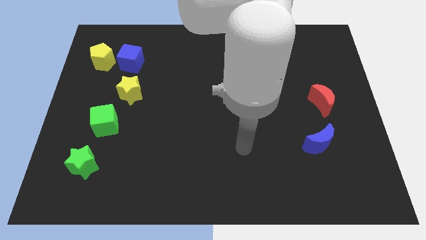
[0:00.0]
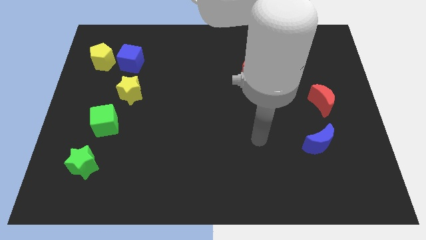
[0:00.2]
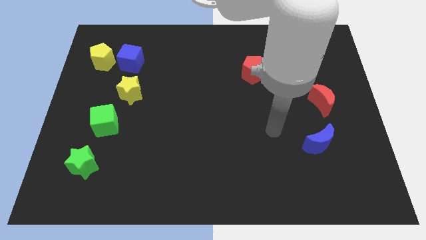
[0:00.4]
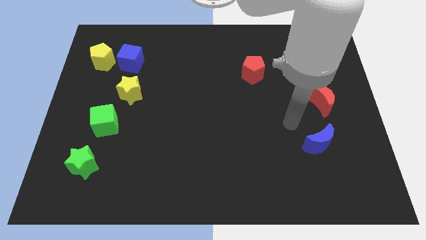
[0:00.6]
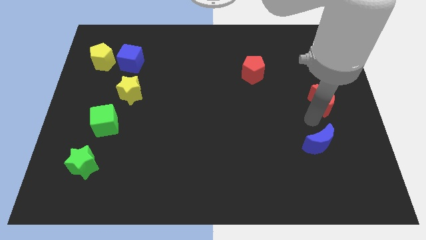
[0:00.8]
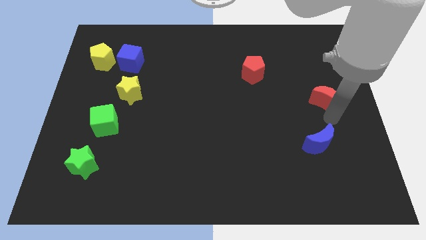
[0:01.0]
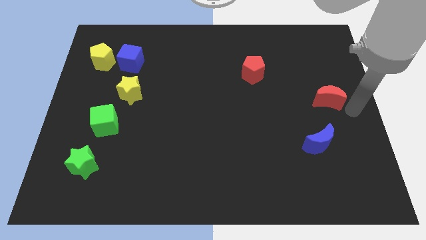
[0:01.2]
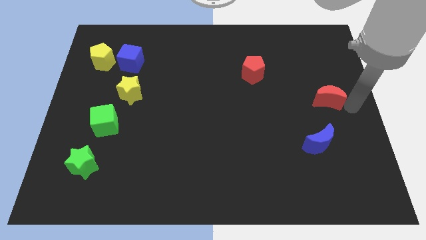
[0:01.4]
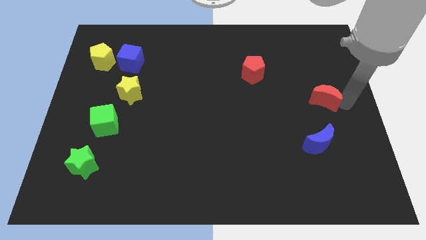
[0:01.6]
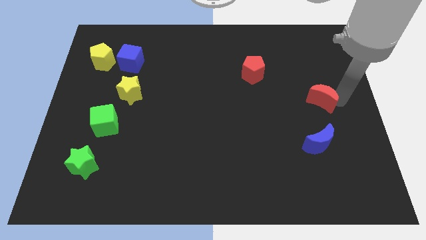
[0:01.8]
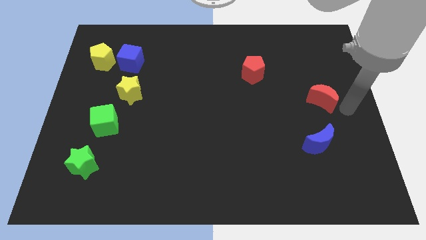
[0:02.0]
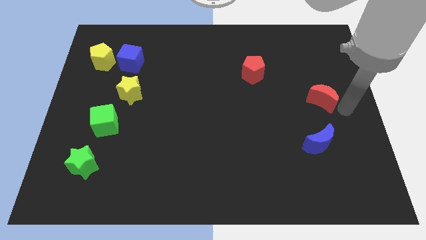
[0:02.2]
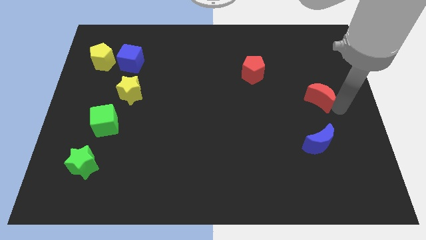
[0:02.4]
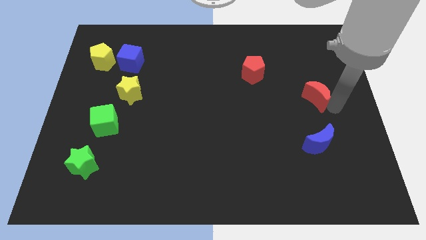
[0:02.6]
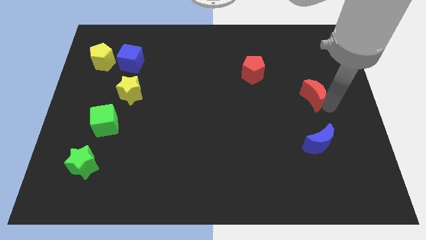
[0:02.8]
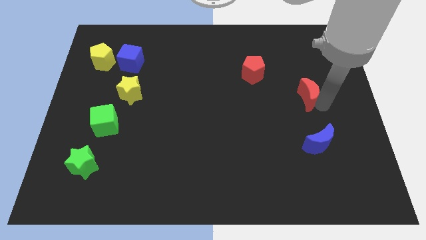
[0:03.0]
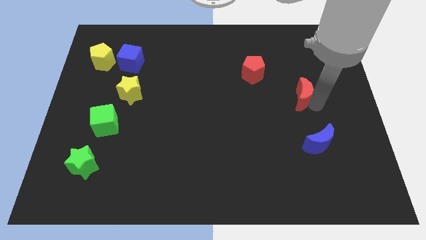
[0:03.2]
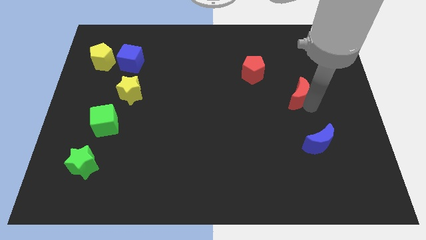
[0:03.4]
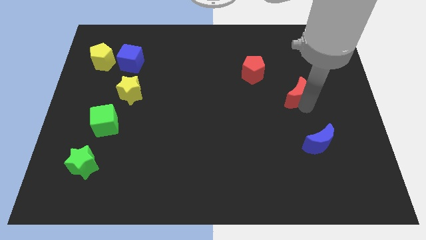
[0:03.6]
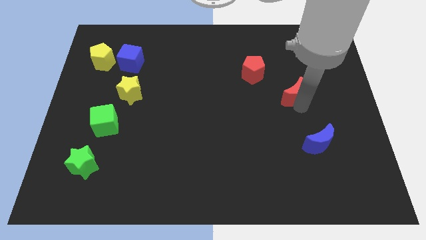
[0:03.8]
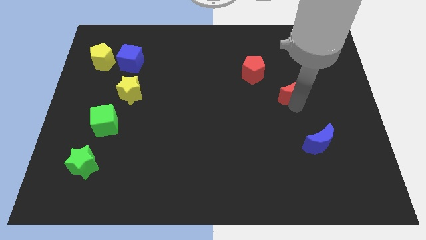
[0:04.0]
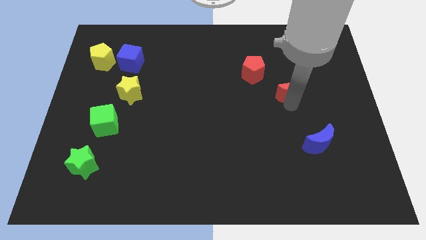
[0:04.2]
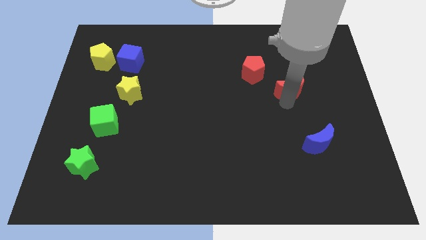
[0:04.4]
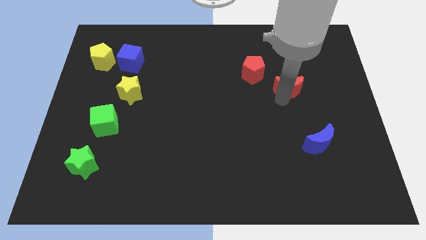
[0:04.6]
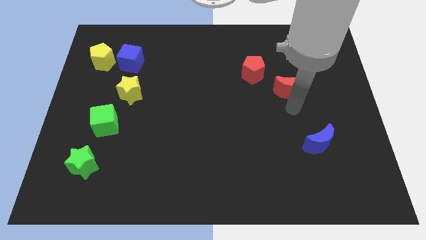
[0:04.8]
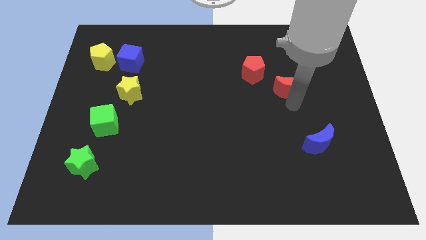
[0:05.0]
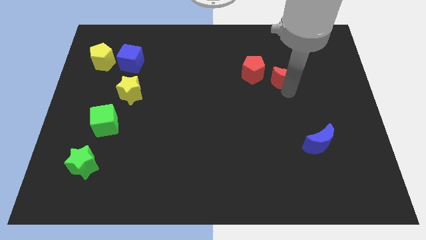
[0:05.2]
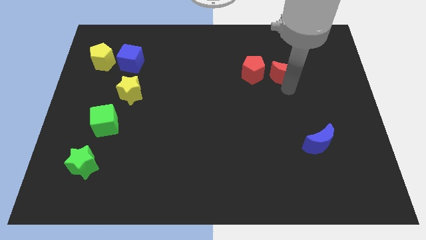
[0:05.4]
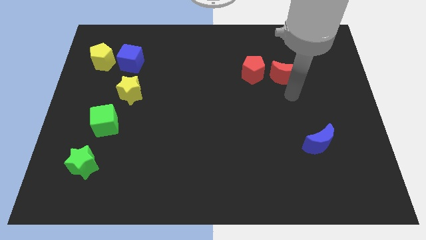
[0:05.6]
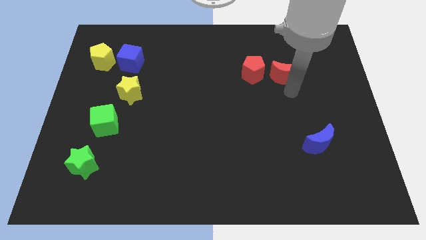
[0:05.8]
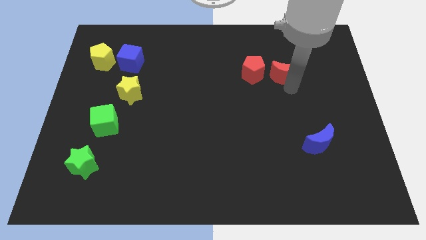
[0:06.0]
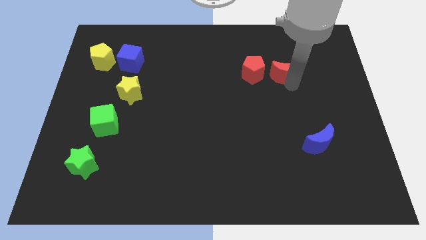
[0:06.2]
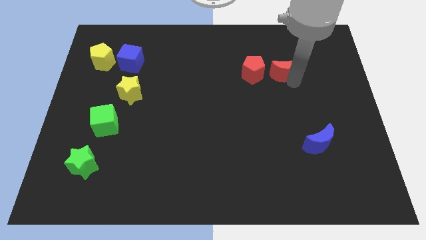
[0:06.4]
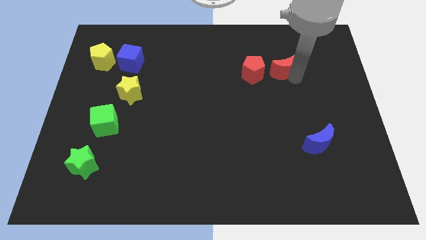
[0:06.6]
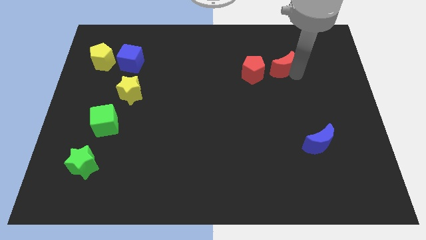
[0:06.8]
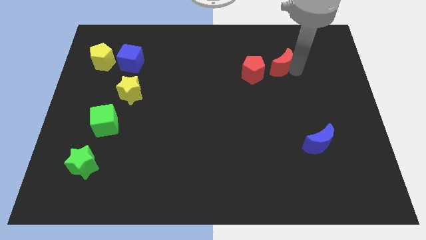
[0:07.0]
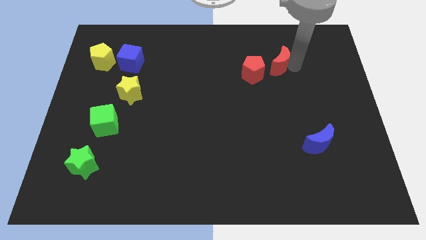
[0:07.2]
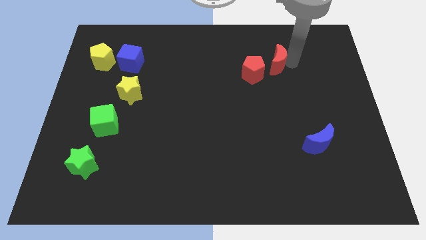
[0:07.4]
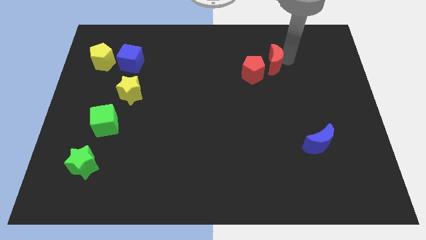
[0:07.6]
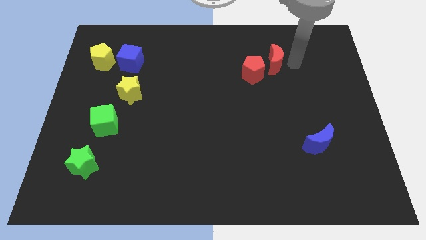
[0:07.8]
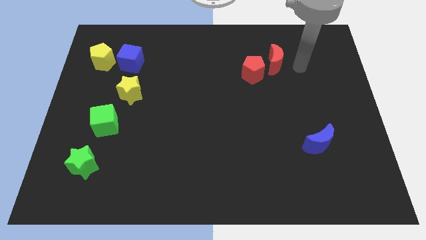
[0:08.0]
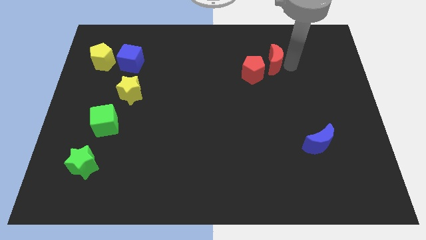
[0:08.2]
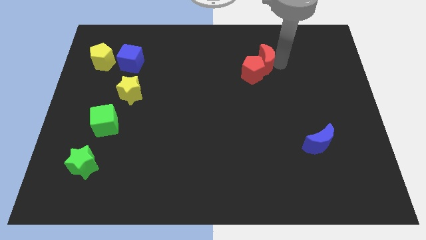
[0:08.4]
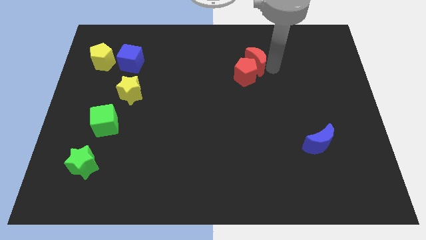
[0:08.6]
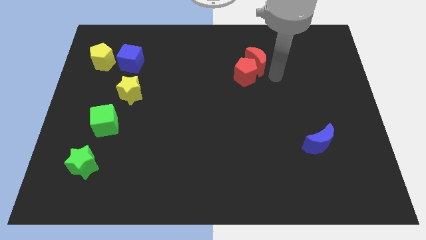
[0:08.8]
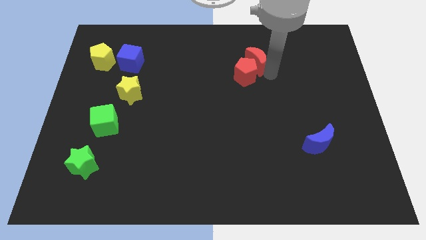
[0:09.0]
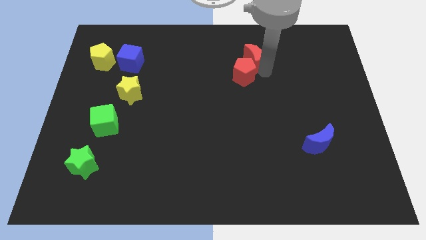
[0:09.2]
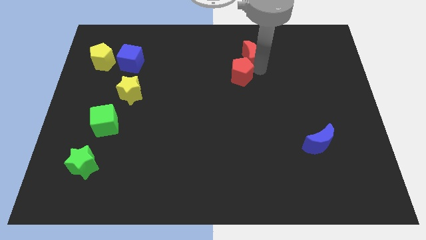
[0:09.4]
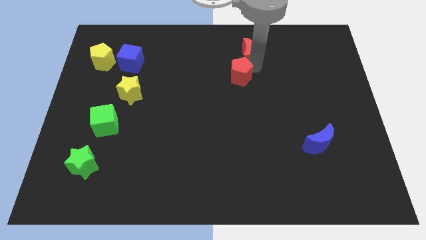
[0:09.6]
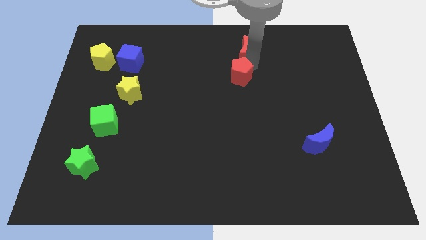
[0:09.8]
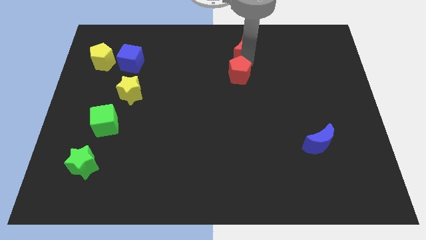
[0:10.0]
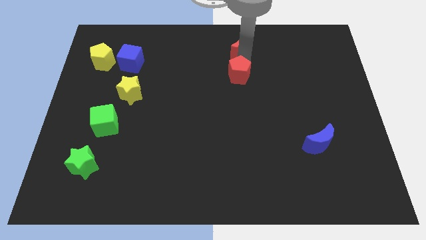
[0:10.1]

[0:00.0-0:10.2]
push the red moon to the top side

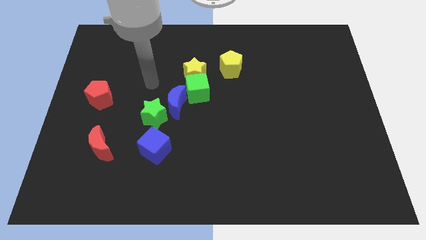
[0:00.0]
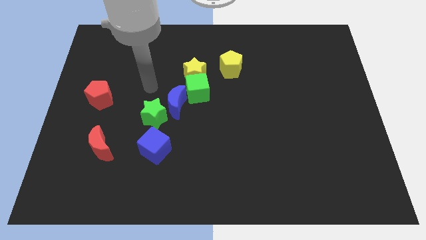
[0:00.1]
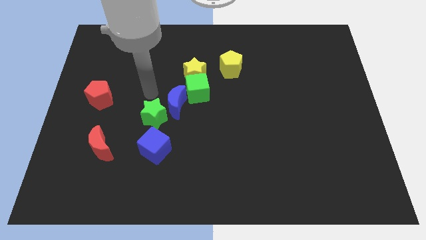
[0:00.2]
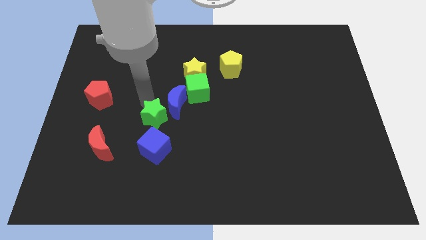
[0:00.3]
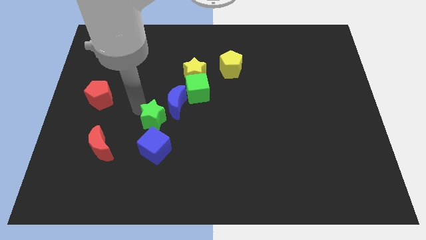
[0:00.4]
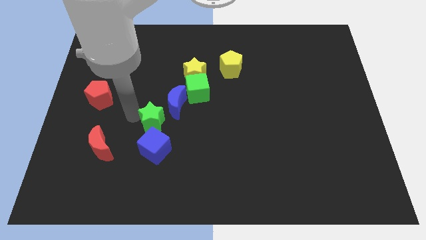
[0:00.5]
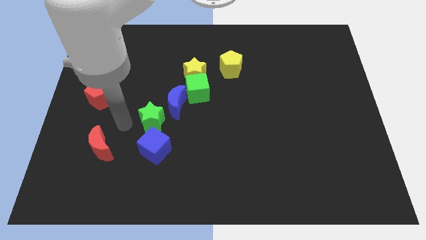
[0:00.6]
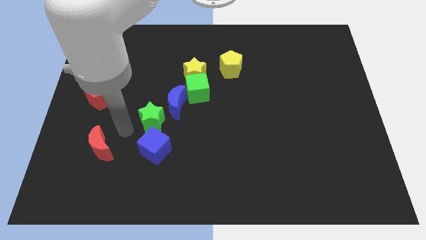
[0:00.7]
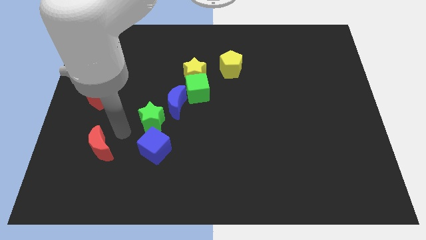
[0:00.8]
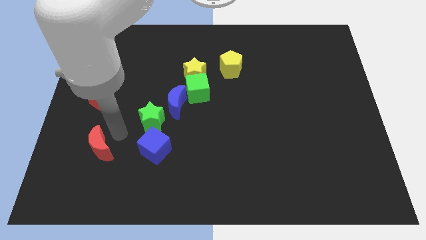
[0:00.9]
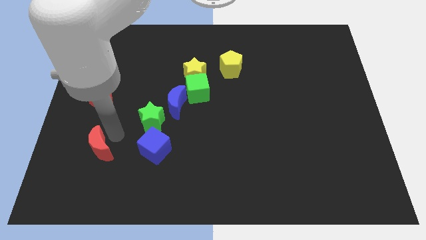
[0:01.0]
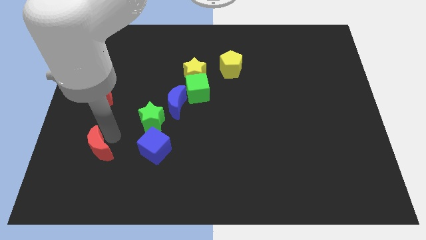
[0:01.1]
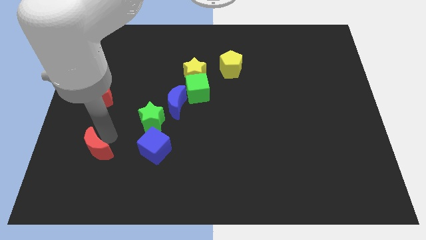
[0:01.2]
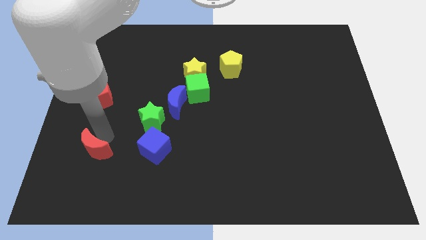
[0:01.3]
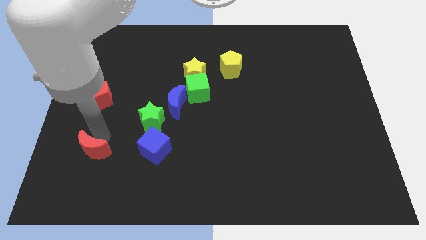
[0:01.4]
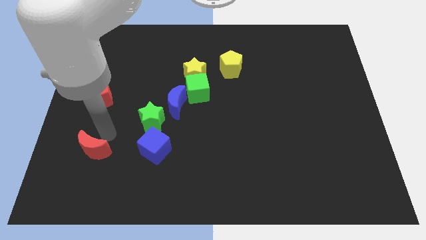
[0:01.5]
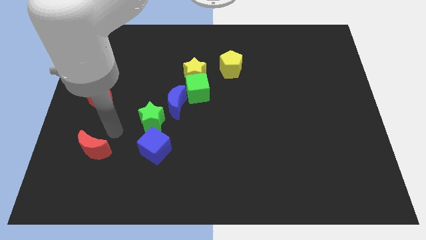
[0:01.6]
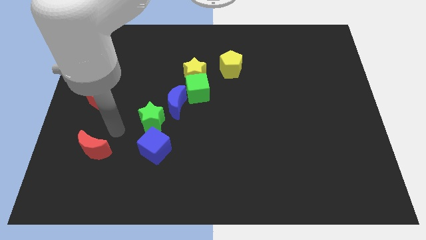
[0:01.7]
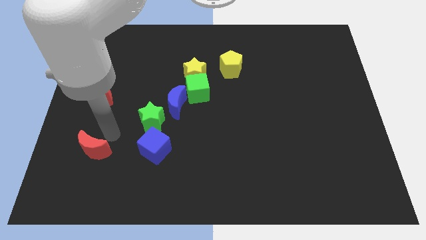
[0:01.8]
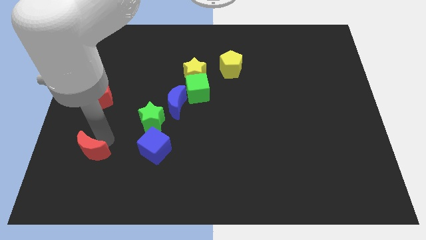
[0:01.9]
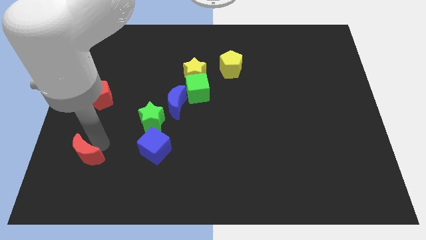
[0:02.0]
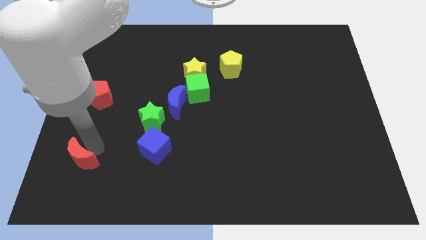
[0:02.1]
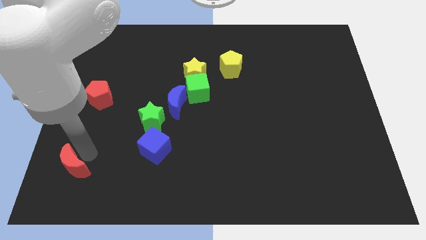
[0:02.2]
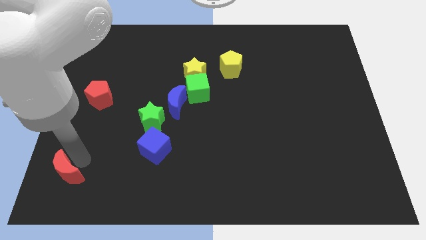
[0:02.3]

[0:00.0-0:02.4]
move the red moon to the bottom left corner
